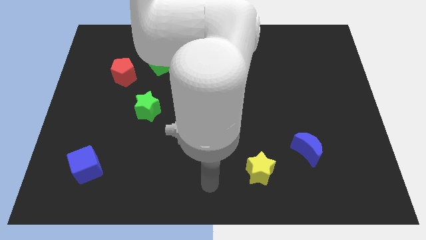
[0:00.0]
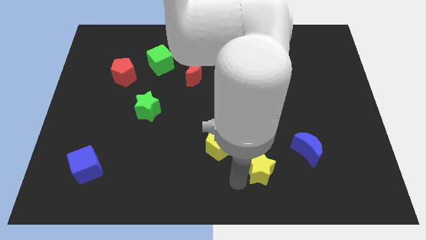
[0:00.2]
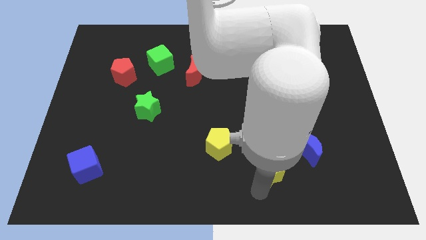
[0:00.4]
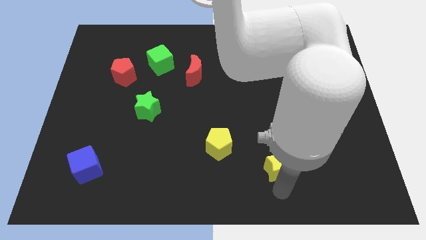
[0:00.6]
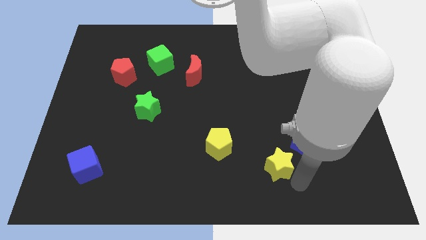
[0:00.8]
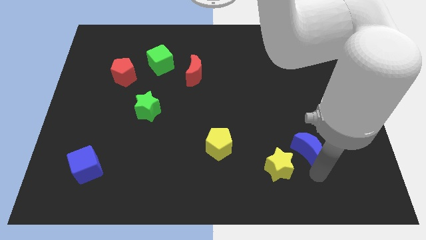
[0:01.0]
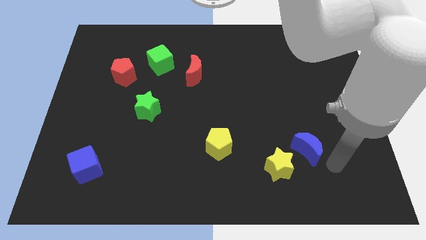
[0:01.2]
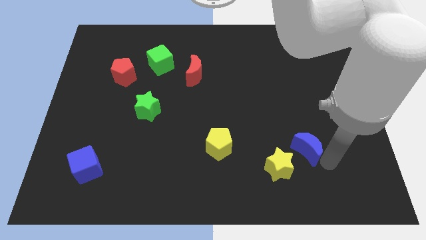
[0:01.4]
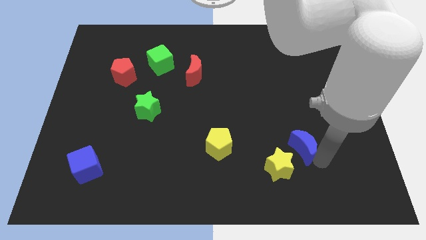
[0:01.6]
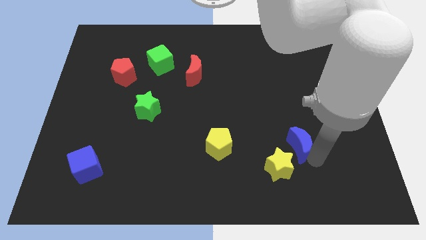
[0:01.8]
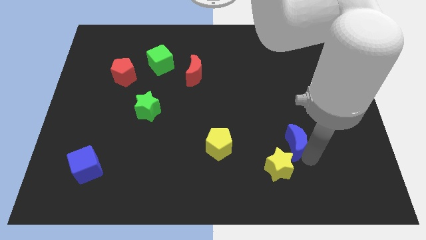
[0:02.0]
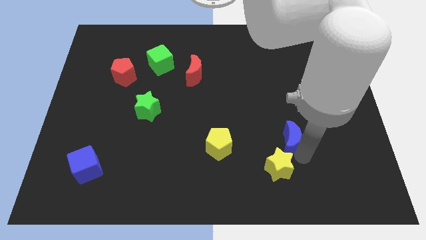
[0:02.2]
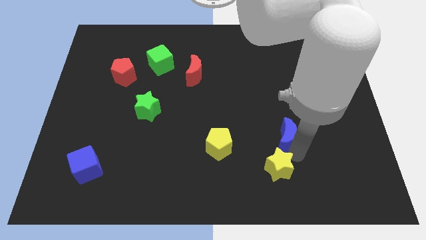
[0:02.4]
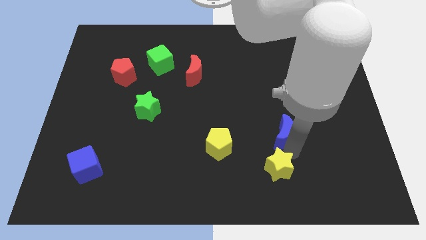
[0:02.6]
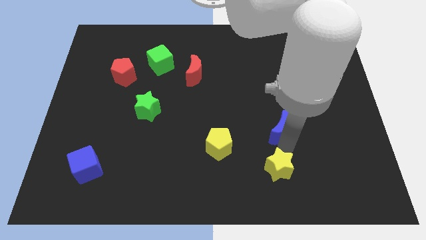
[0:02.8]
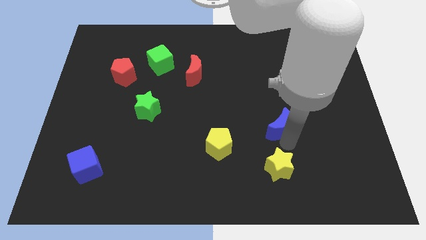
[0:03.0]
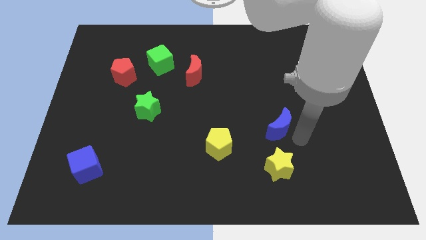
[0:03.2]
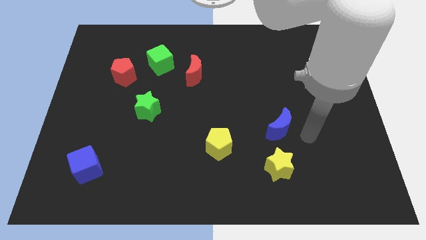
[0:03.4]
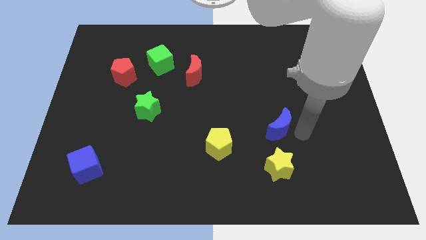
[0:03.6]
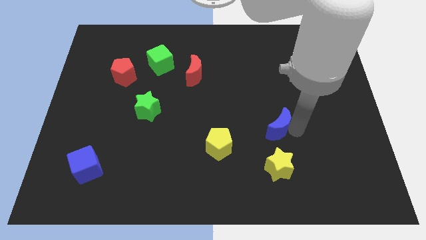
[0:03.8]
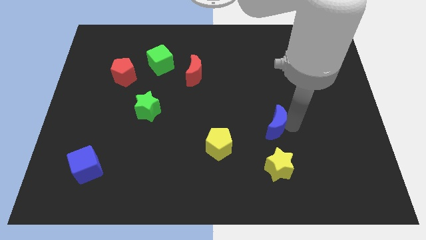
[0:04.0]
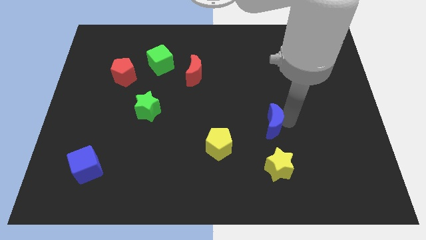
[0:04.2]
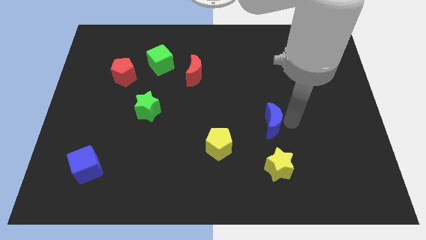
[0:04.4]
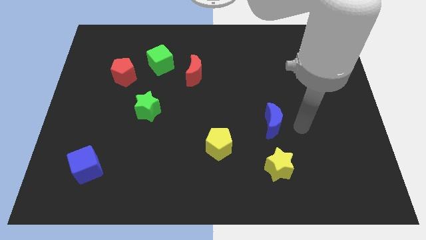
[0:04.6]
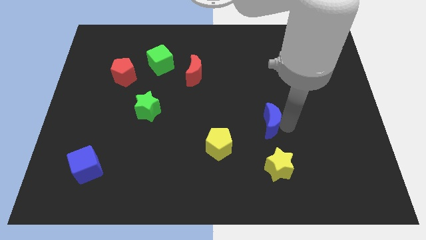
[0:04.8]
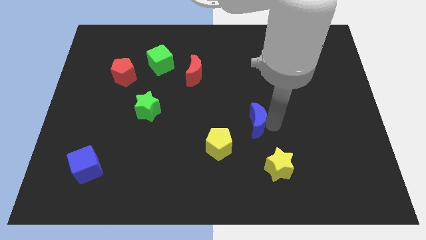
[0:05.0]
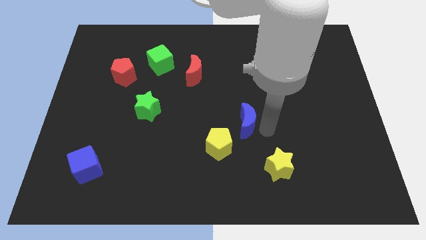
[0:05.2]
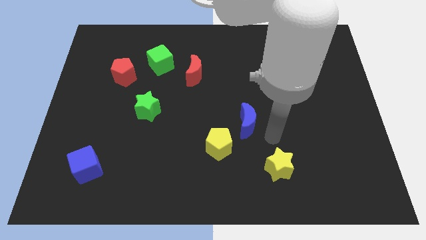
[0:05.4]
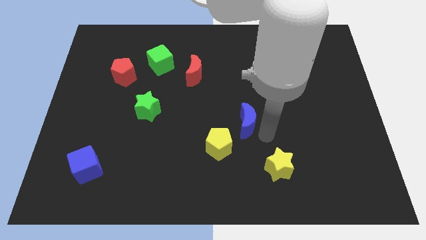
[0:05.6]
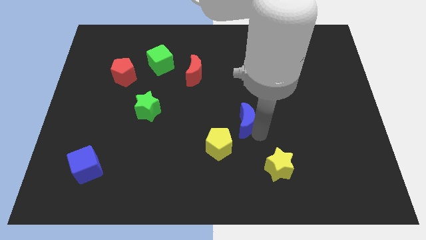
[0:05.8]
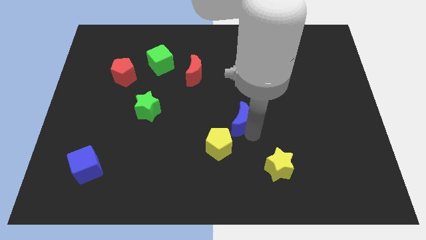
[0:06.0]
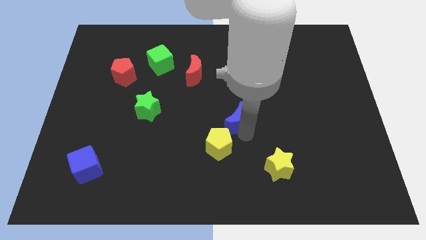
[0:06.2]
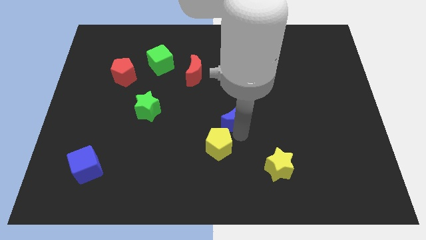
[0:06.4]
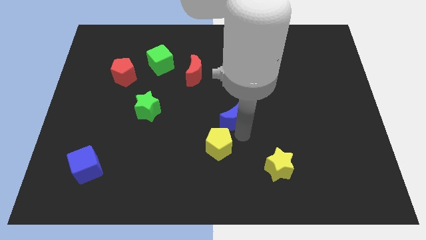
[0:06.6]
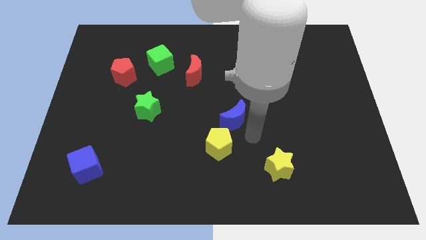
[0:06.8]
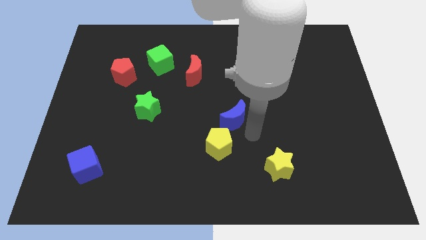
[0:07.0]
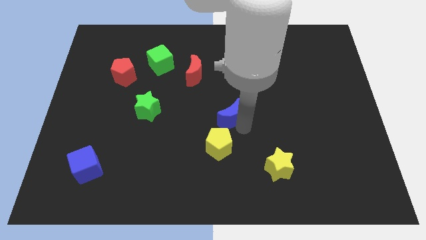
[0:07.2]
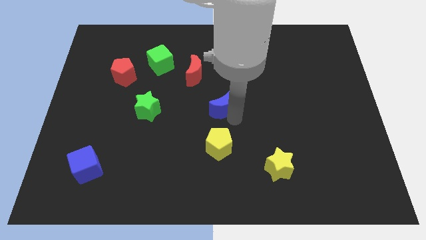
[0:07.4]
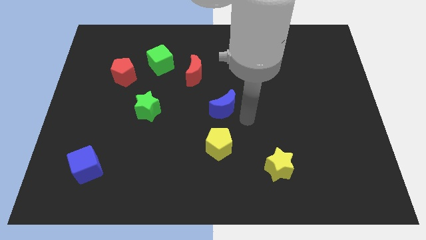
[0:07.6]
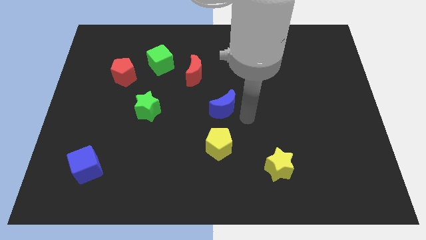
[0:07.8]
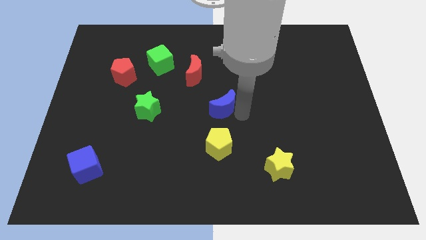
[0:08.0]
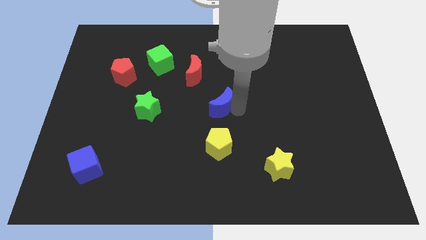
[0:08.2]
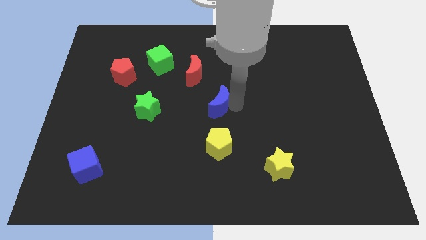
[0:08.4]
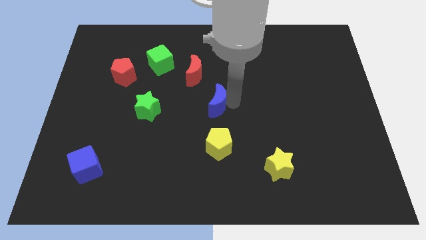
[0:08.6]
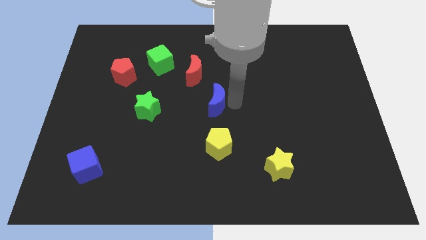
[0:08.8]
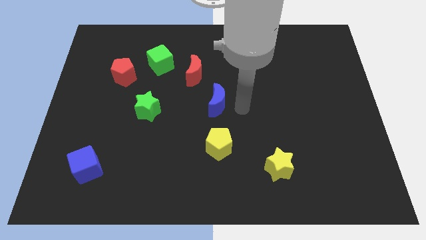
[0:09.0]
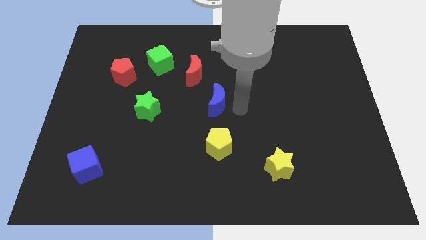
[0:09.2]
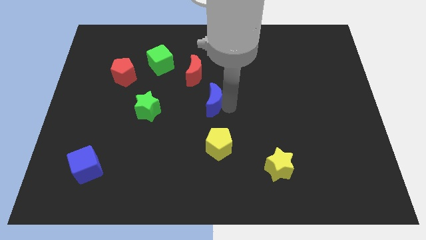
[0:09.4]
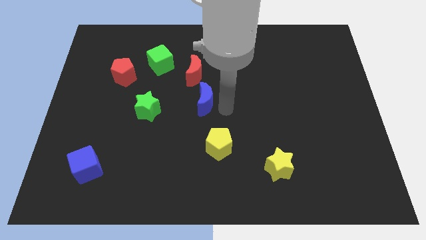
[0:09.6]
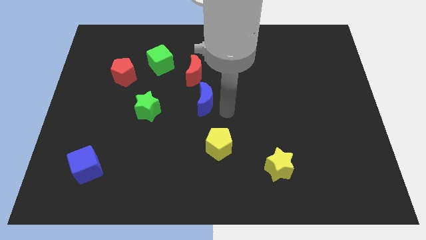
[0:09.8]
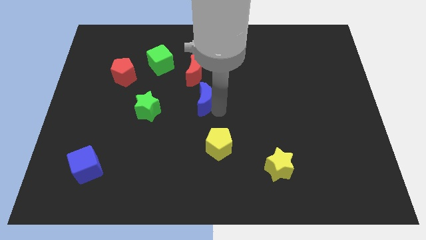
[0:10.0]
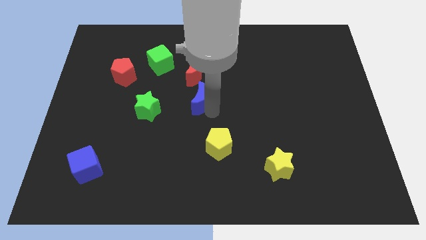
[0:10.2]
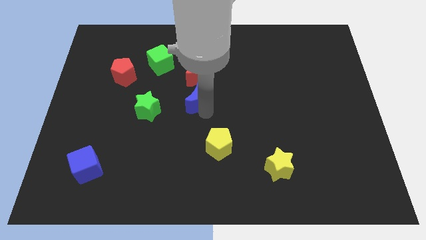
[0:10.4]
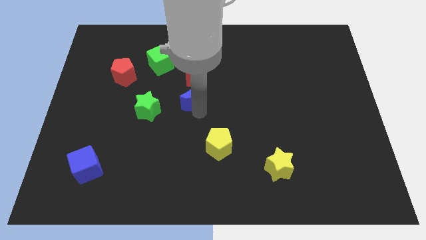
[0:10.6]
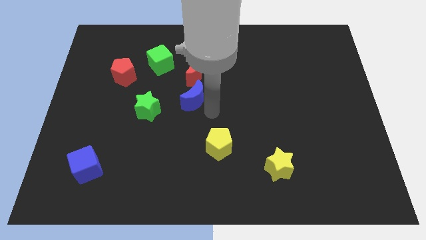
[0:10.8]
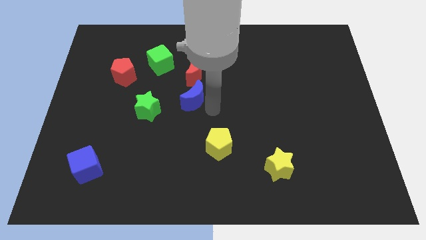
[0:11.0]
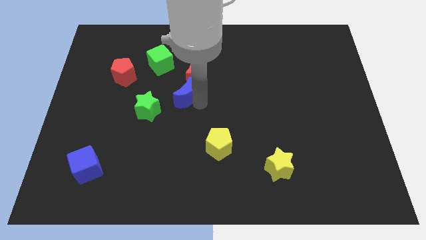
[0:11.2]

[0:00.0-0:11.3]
push the blue moon diagonally down and to the left of the red moon

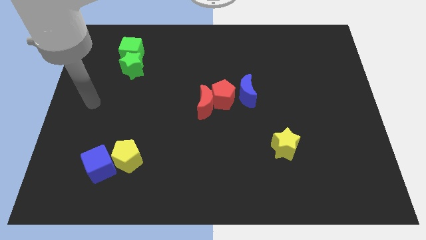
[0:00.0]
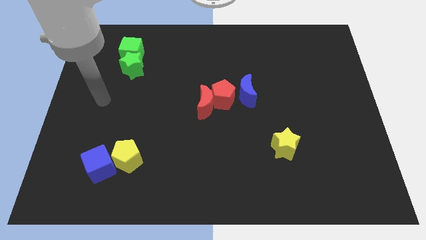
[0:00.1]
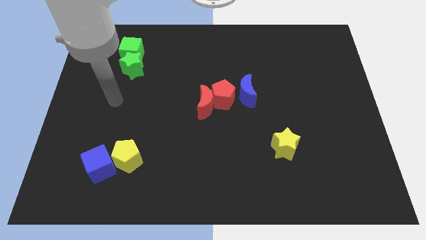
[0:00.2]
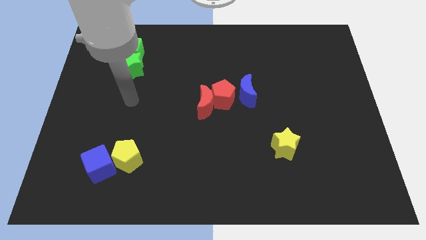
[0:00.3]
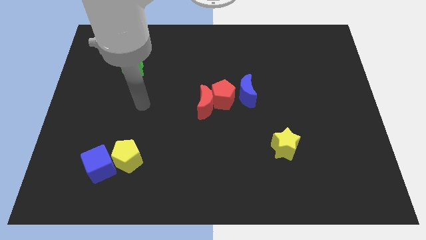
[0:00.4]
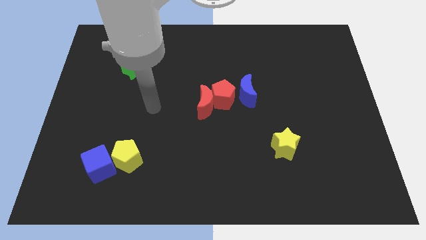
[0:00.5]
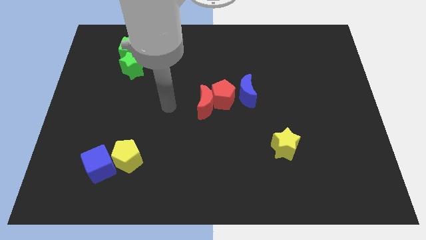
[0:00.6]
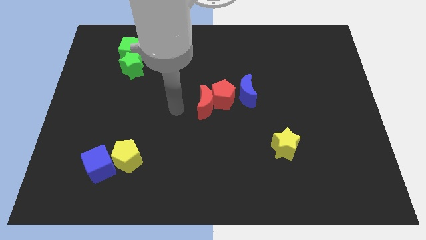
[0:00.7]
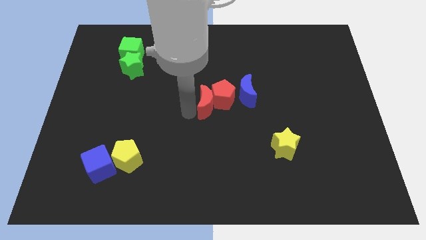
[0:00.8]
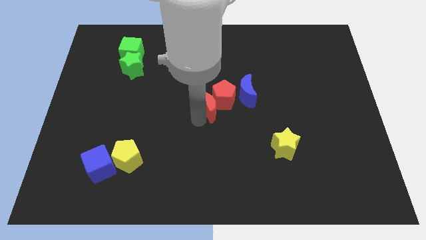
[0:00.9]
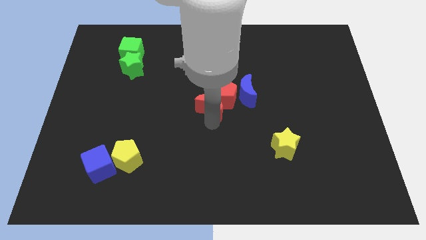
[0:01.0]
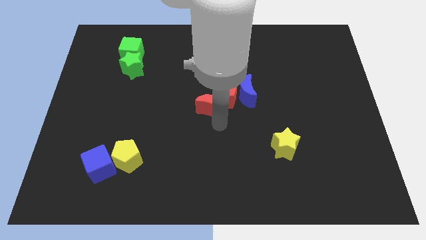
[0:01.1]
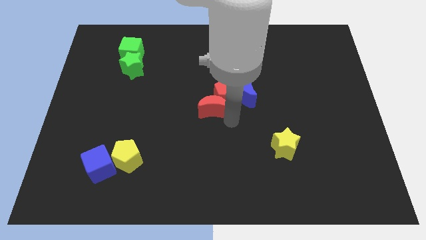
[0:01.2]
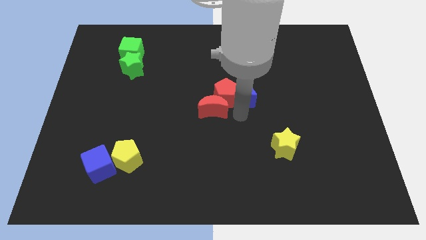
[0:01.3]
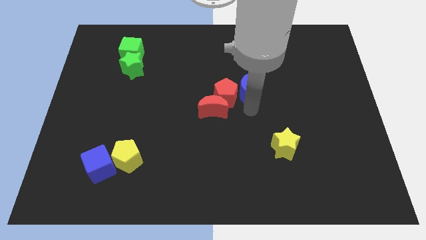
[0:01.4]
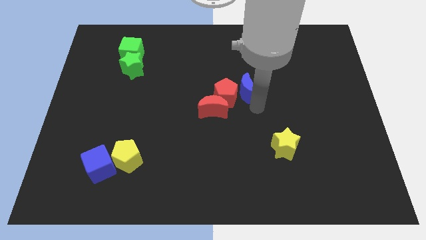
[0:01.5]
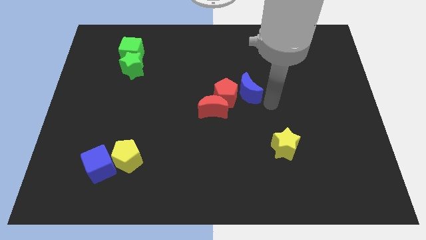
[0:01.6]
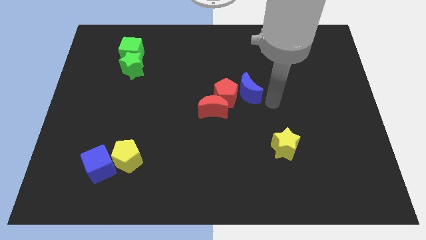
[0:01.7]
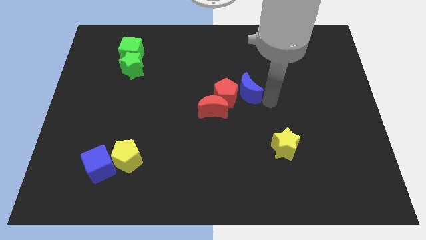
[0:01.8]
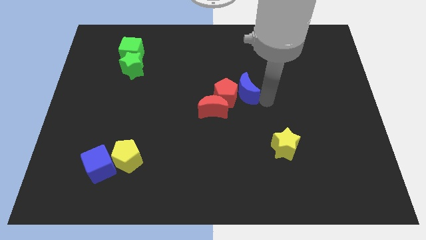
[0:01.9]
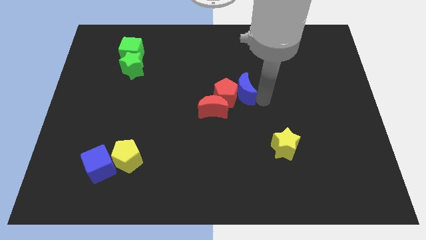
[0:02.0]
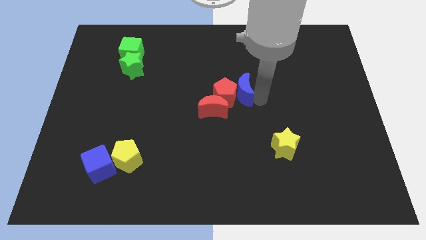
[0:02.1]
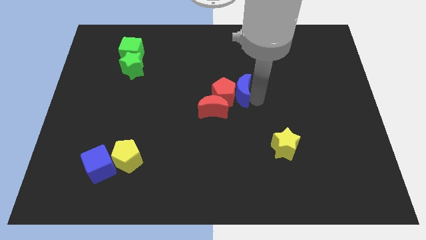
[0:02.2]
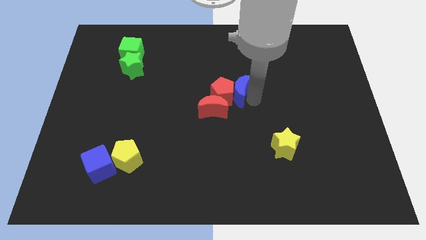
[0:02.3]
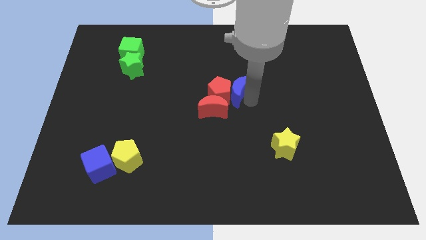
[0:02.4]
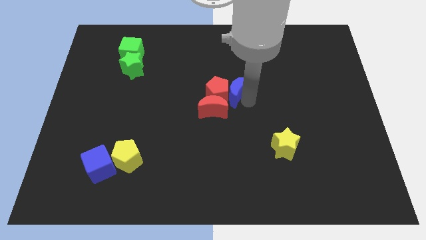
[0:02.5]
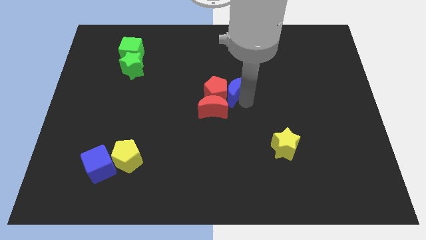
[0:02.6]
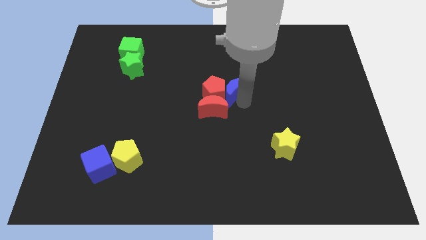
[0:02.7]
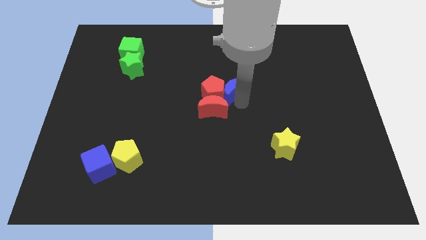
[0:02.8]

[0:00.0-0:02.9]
slide the blue moon to the top of the red moon
